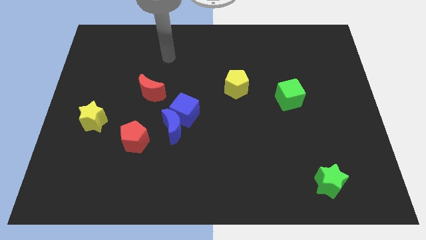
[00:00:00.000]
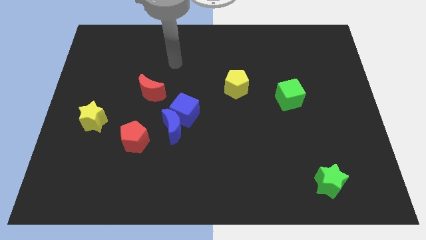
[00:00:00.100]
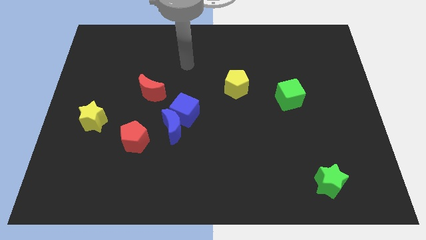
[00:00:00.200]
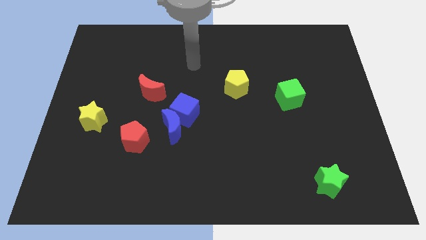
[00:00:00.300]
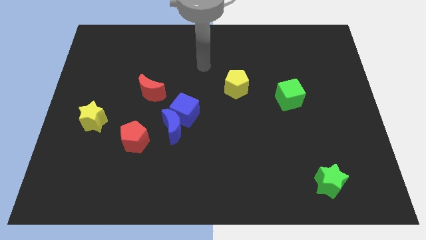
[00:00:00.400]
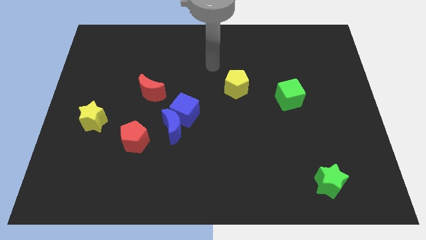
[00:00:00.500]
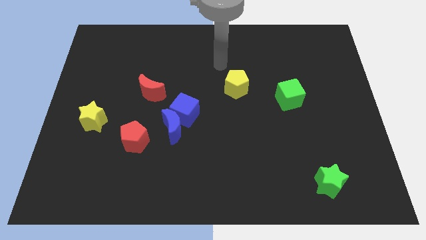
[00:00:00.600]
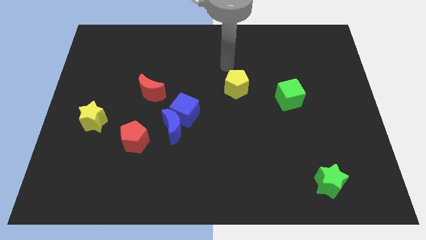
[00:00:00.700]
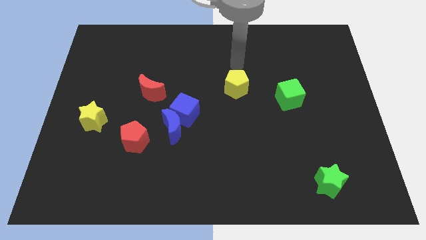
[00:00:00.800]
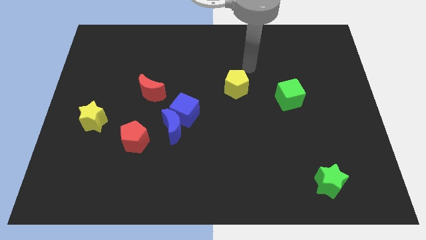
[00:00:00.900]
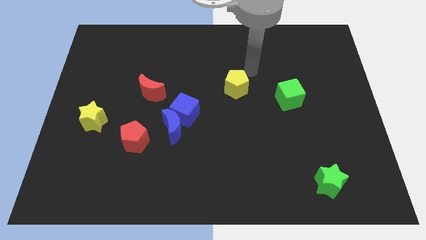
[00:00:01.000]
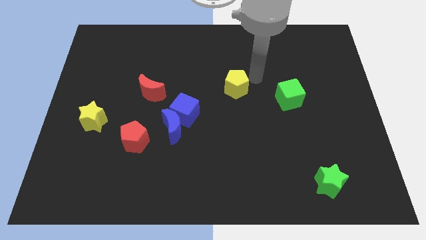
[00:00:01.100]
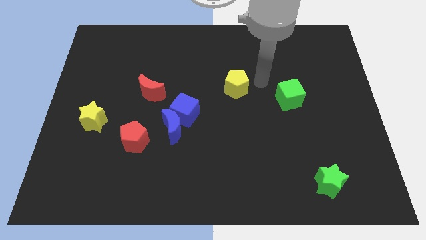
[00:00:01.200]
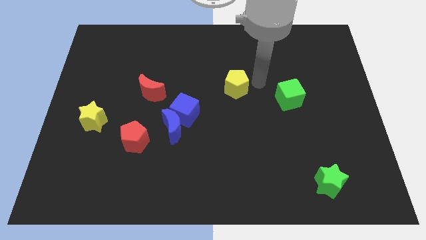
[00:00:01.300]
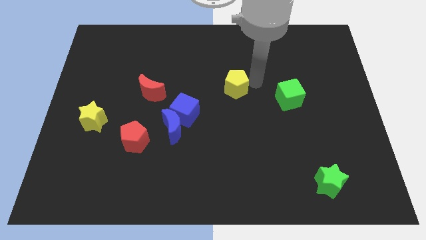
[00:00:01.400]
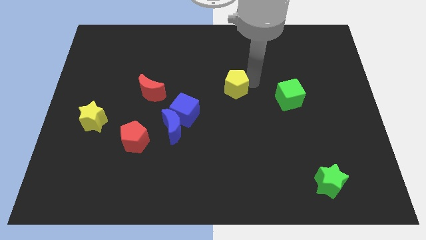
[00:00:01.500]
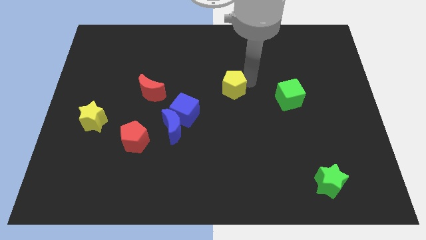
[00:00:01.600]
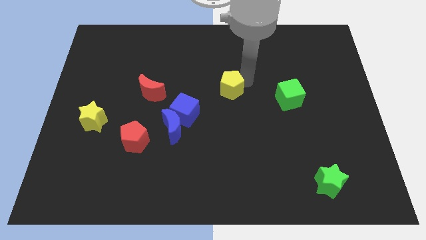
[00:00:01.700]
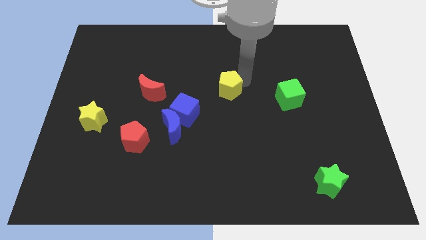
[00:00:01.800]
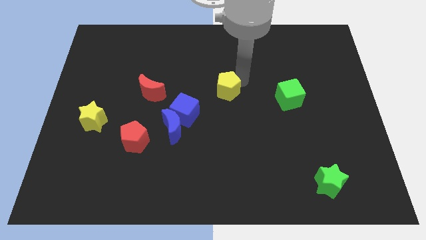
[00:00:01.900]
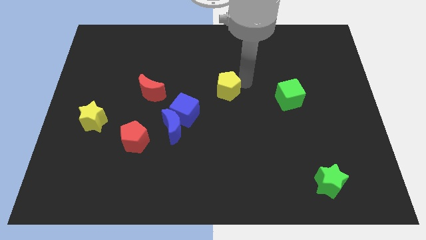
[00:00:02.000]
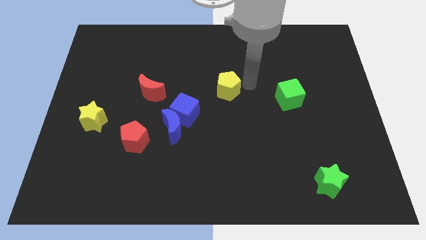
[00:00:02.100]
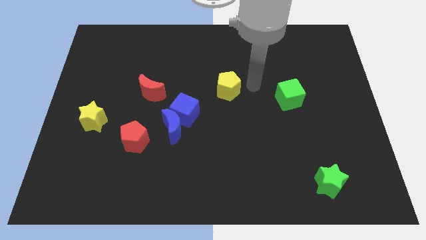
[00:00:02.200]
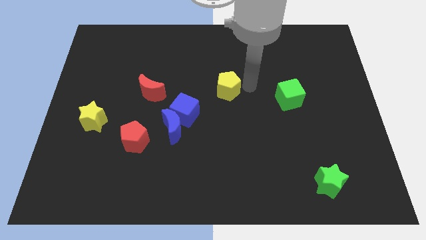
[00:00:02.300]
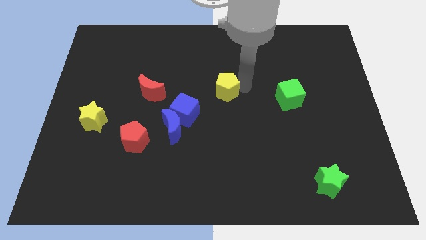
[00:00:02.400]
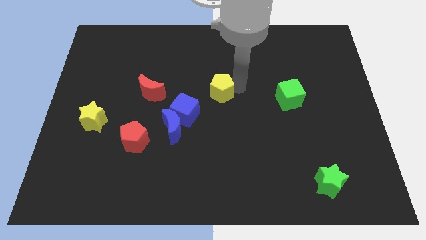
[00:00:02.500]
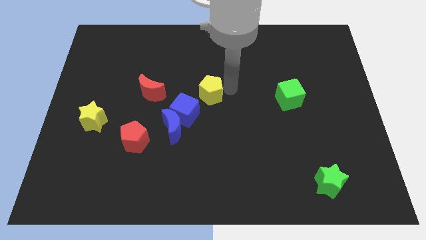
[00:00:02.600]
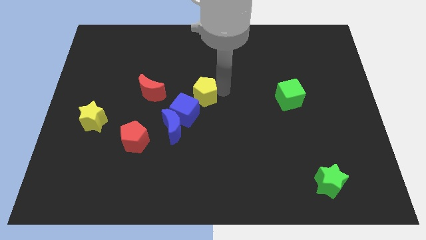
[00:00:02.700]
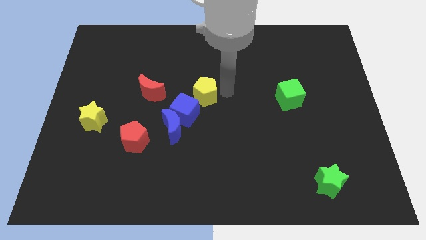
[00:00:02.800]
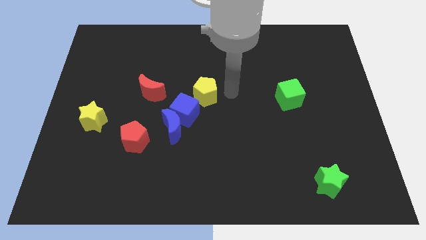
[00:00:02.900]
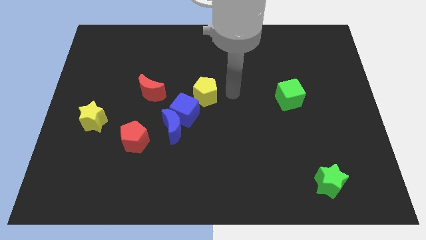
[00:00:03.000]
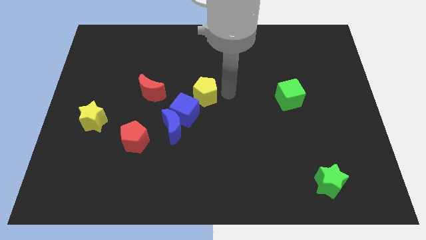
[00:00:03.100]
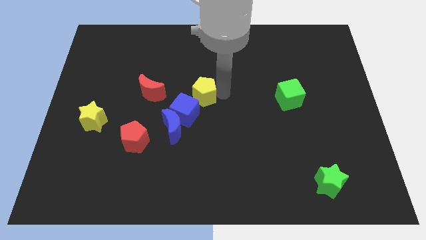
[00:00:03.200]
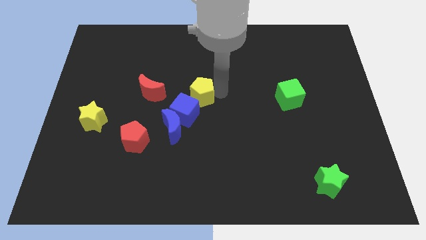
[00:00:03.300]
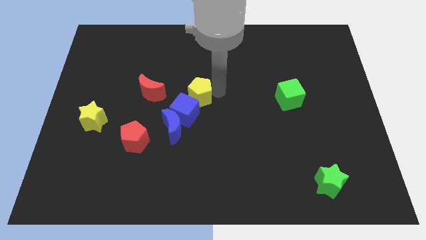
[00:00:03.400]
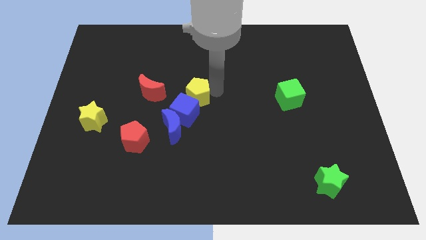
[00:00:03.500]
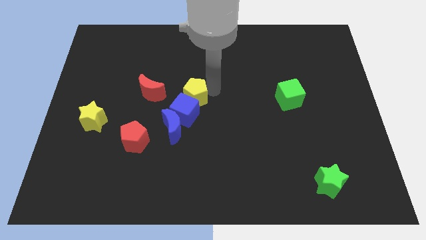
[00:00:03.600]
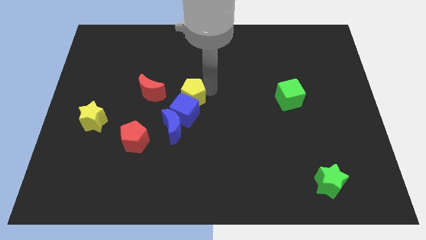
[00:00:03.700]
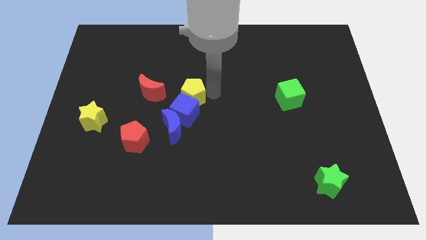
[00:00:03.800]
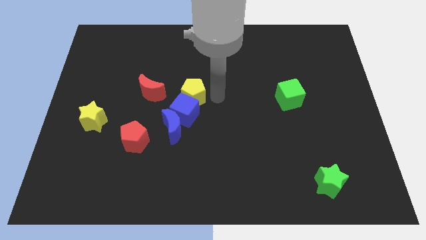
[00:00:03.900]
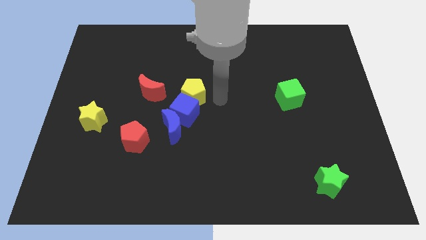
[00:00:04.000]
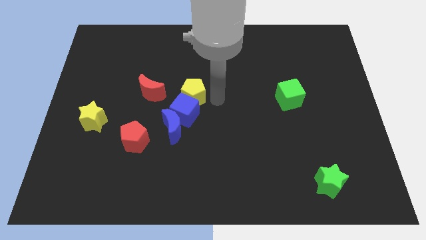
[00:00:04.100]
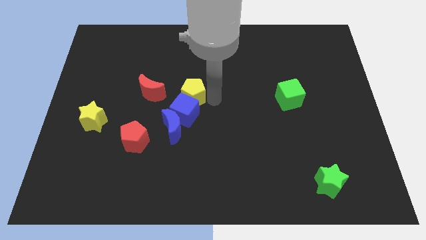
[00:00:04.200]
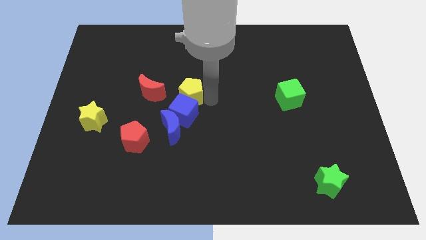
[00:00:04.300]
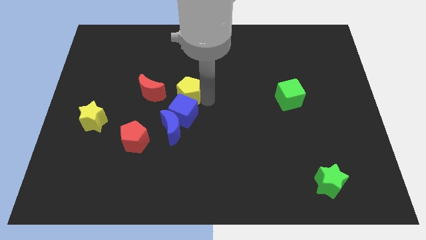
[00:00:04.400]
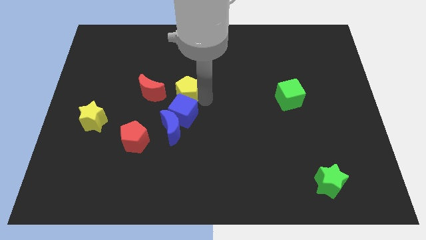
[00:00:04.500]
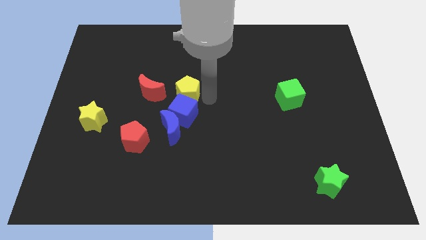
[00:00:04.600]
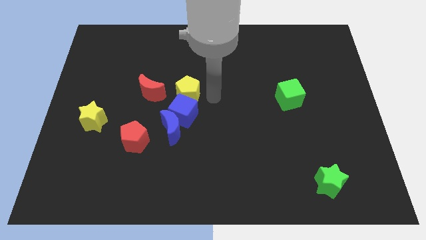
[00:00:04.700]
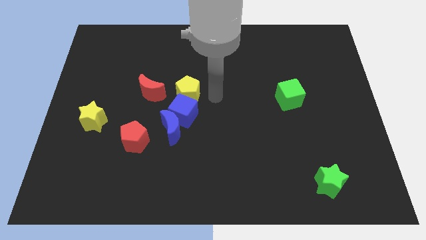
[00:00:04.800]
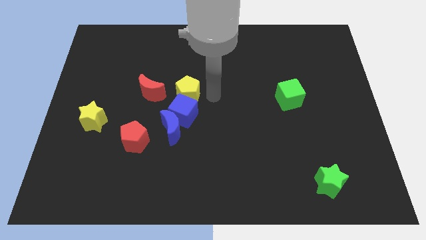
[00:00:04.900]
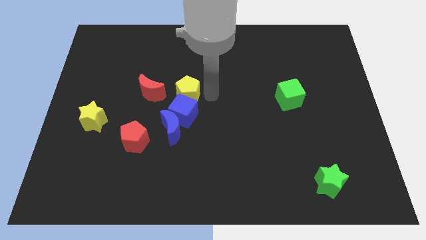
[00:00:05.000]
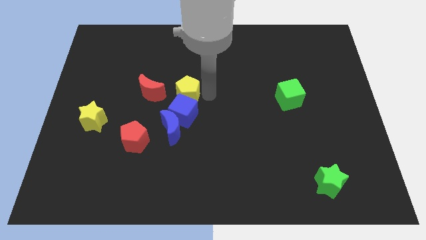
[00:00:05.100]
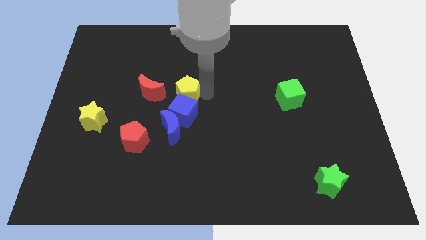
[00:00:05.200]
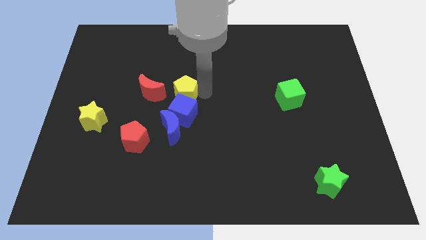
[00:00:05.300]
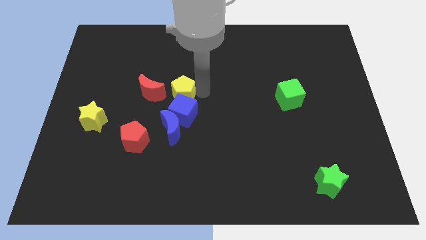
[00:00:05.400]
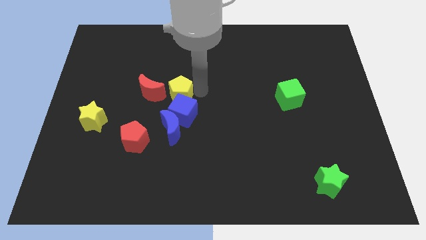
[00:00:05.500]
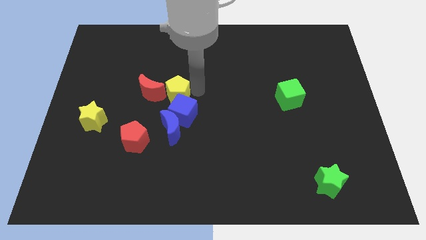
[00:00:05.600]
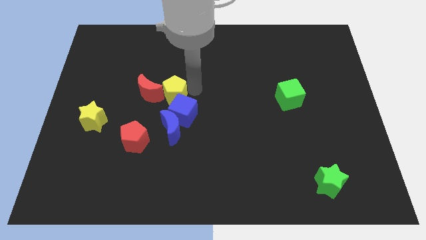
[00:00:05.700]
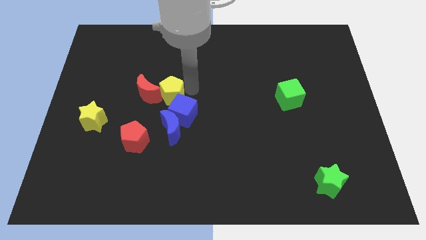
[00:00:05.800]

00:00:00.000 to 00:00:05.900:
put the yellow pentagon close to the red moon

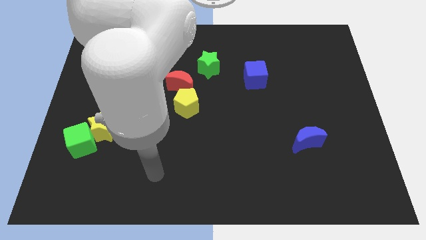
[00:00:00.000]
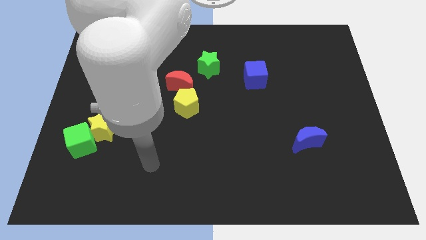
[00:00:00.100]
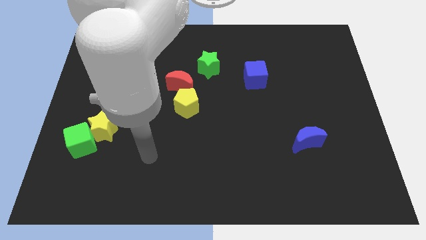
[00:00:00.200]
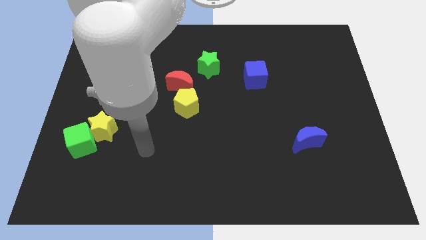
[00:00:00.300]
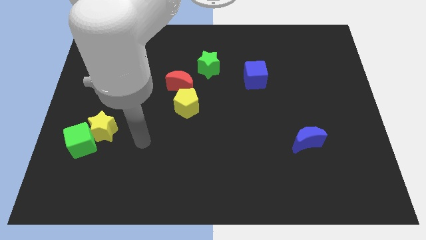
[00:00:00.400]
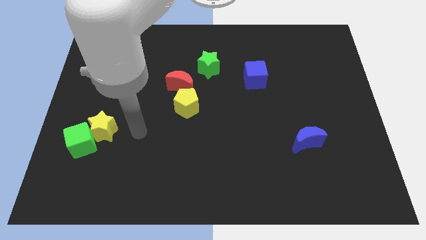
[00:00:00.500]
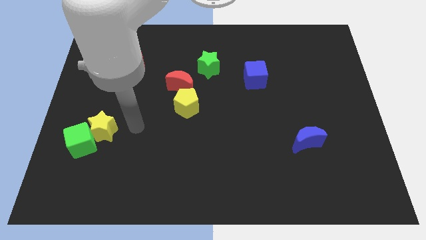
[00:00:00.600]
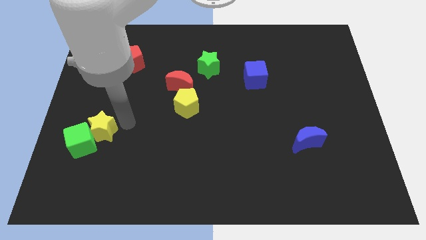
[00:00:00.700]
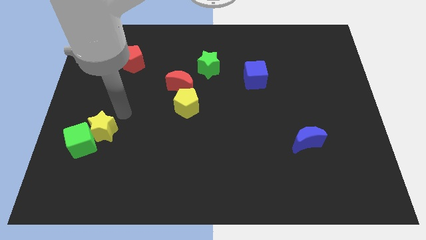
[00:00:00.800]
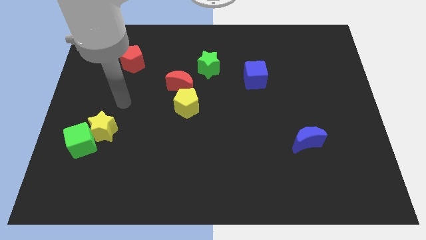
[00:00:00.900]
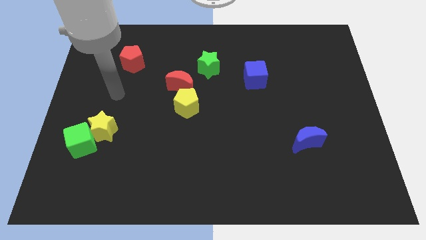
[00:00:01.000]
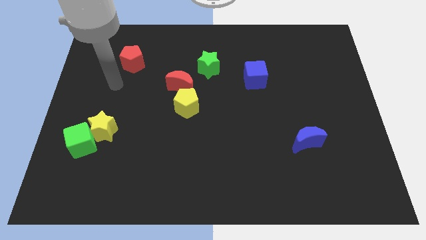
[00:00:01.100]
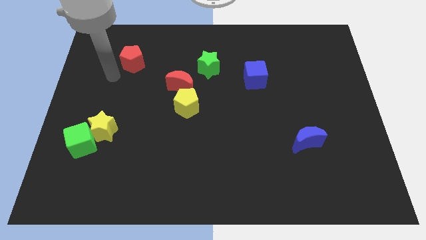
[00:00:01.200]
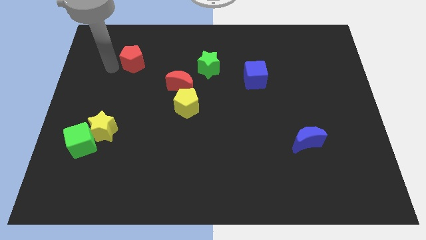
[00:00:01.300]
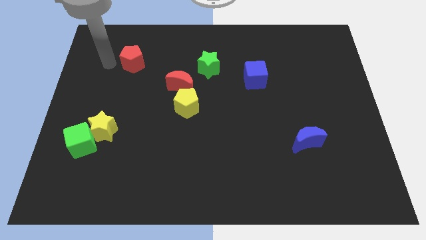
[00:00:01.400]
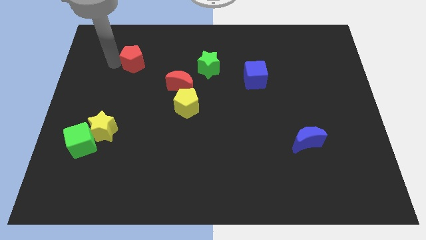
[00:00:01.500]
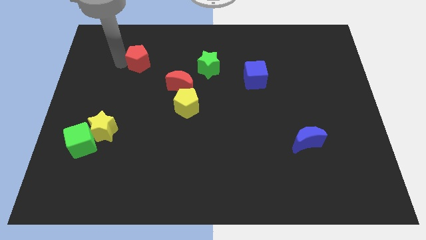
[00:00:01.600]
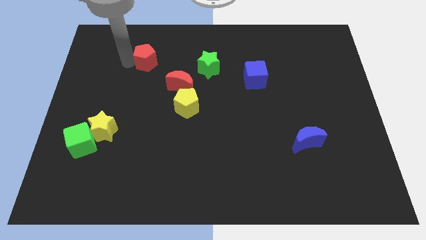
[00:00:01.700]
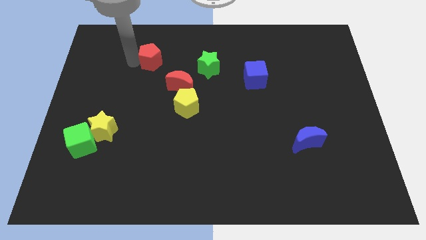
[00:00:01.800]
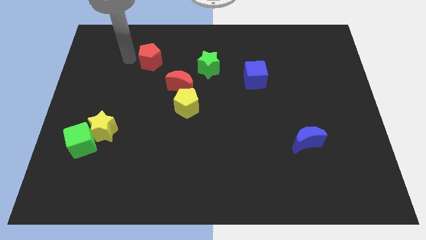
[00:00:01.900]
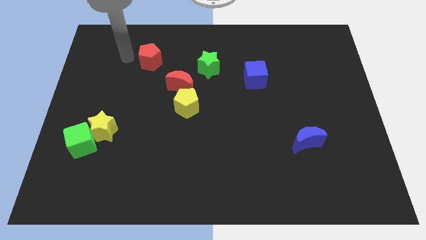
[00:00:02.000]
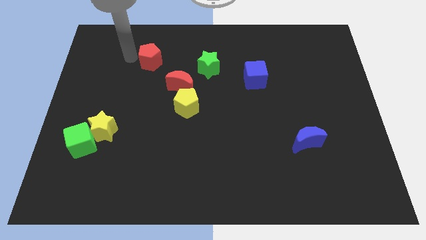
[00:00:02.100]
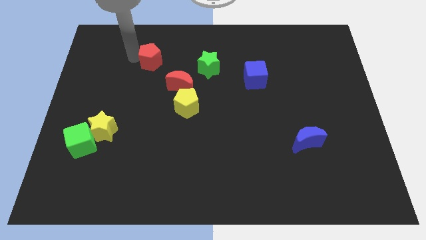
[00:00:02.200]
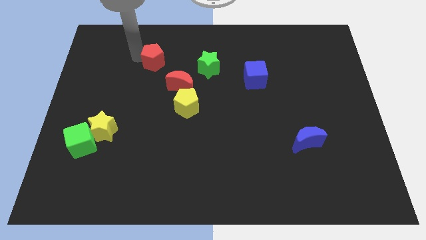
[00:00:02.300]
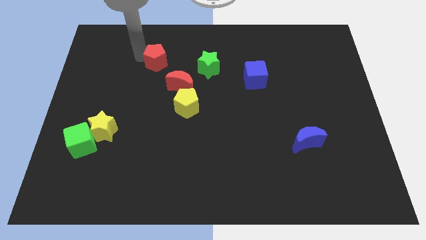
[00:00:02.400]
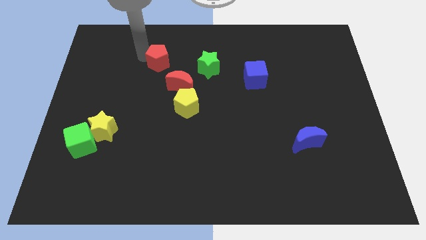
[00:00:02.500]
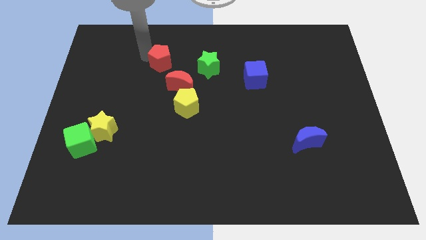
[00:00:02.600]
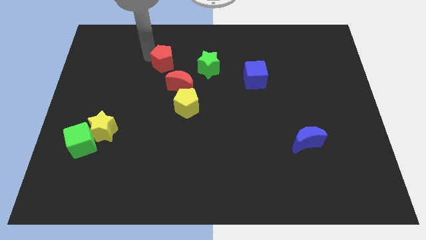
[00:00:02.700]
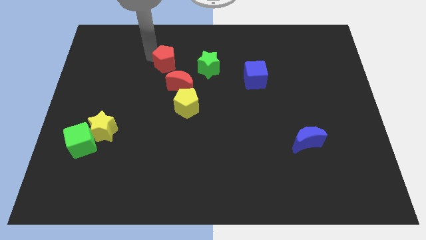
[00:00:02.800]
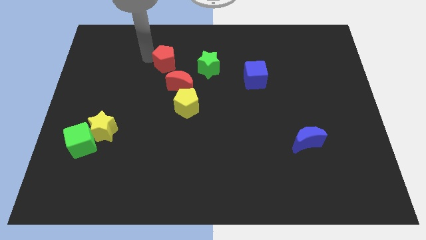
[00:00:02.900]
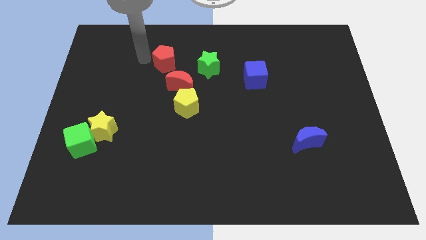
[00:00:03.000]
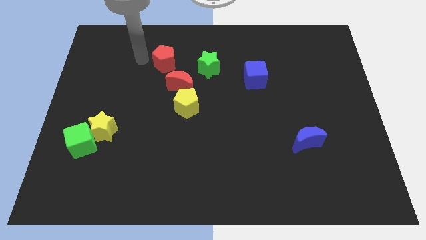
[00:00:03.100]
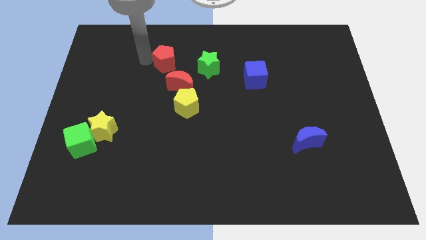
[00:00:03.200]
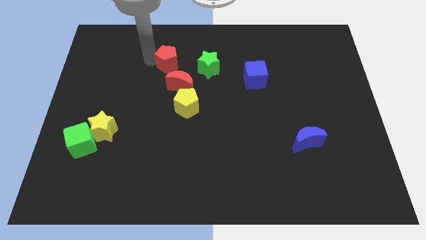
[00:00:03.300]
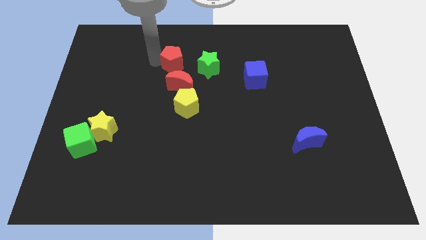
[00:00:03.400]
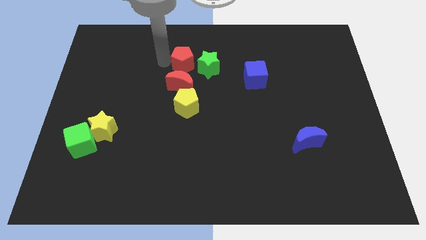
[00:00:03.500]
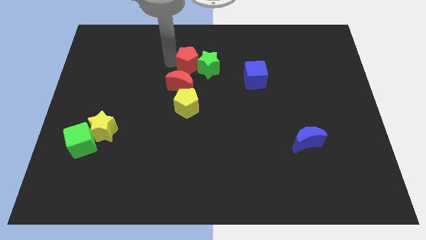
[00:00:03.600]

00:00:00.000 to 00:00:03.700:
slide the red pentagon next to the green star
